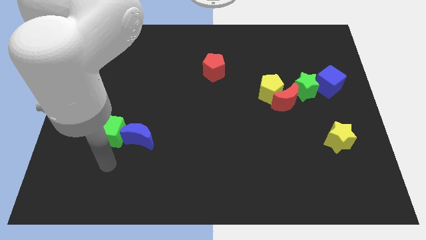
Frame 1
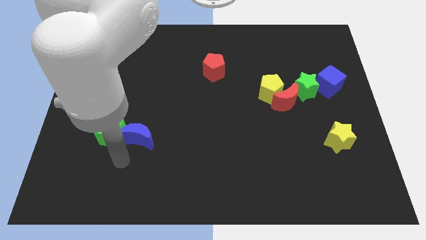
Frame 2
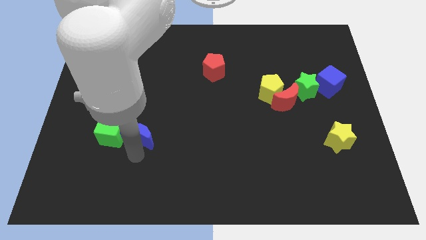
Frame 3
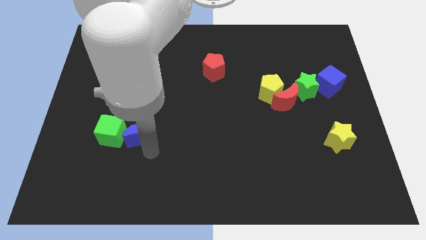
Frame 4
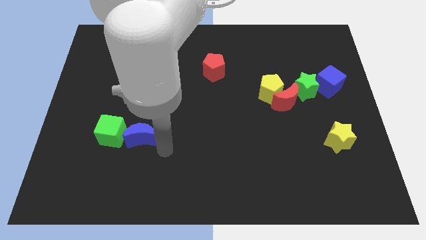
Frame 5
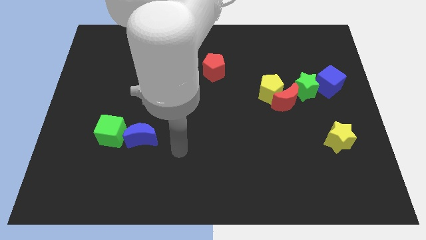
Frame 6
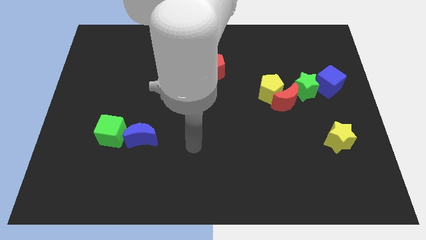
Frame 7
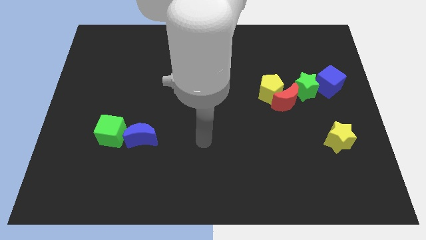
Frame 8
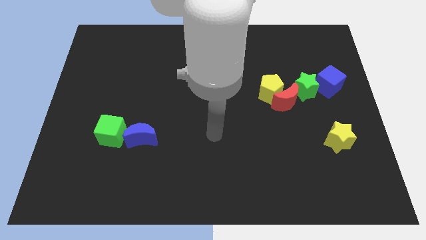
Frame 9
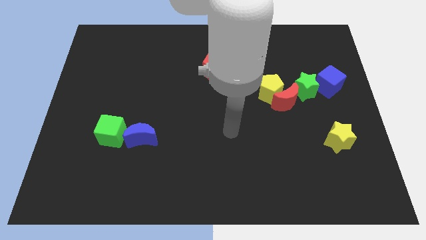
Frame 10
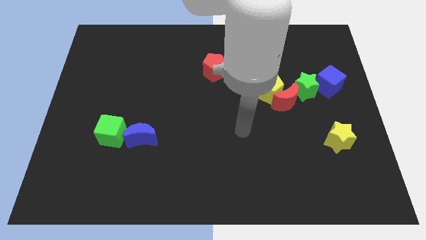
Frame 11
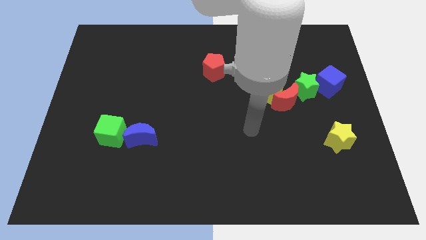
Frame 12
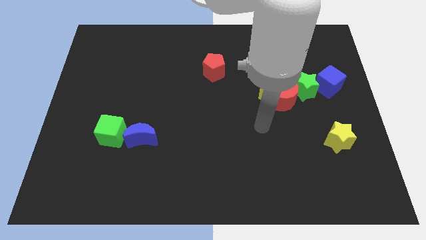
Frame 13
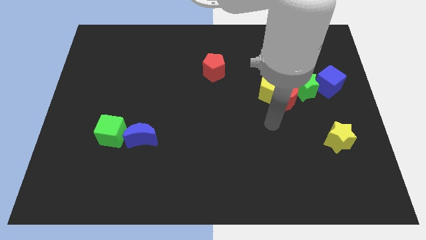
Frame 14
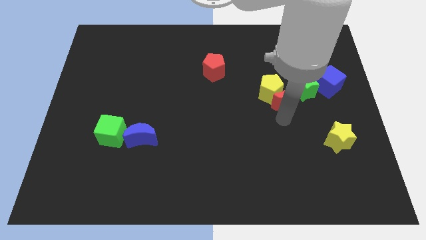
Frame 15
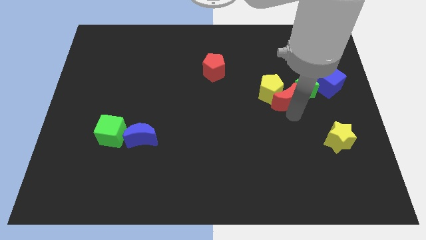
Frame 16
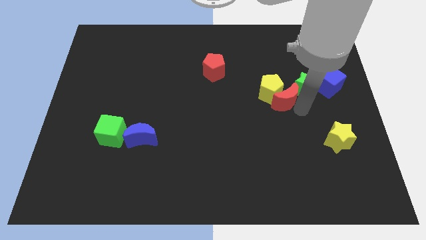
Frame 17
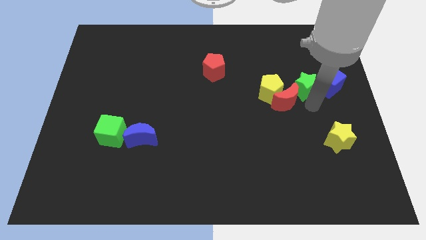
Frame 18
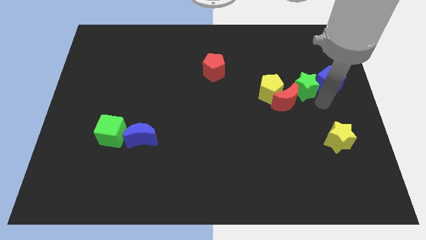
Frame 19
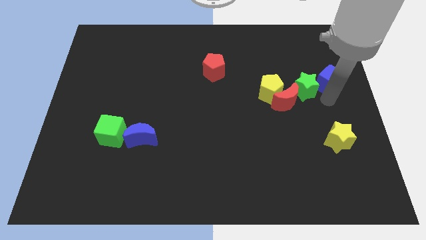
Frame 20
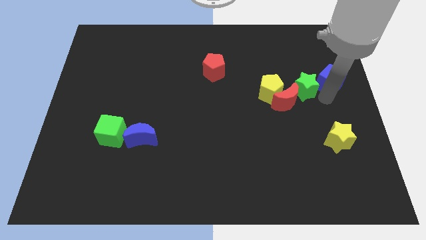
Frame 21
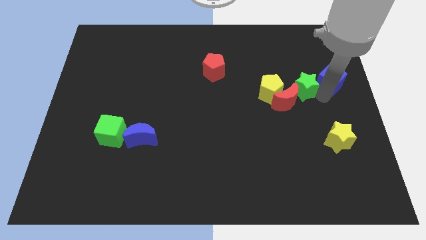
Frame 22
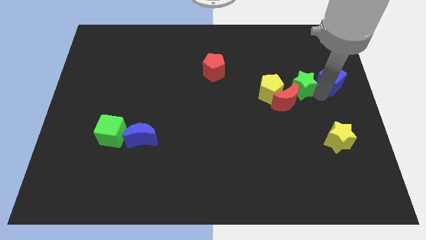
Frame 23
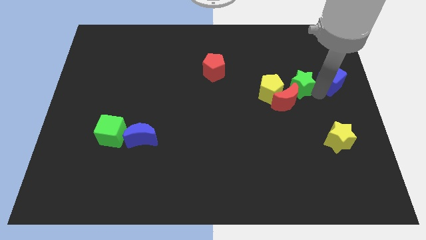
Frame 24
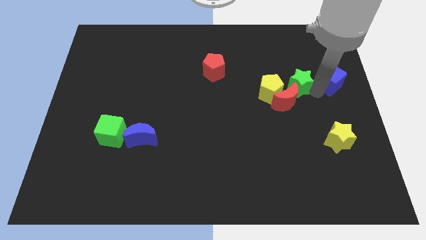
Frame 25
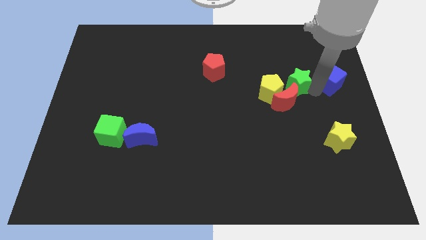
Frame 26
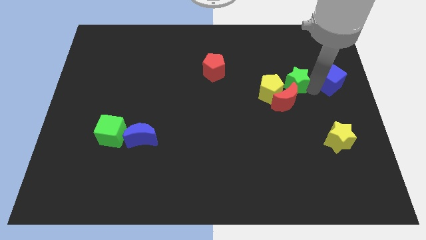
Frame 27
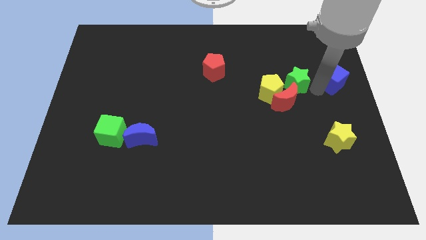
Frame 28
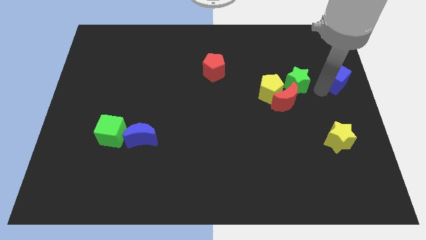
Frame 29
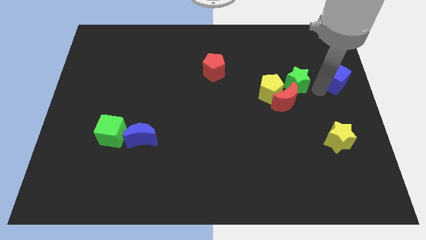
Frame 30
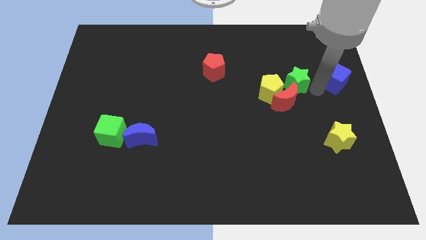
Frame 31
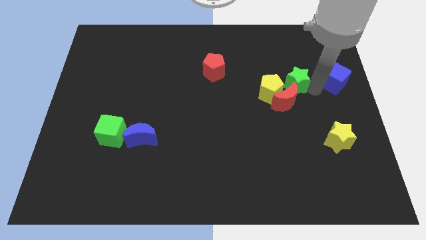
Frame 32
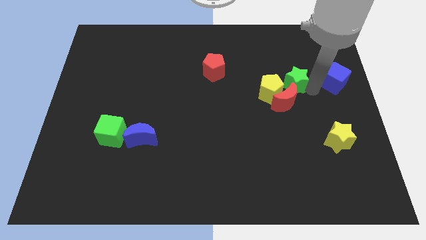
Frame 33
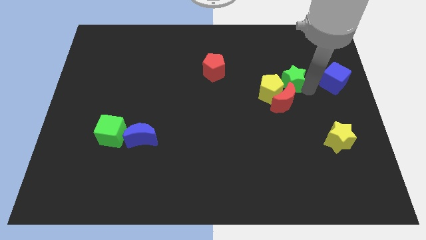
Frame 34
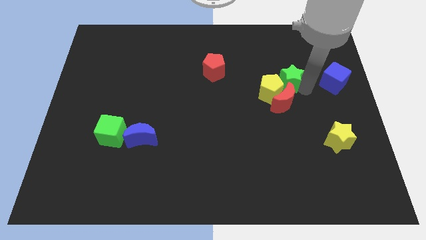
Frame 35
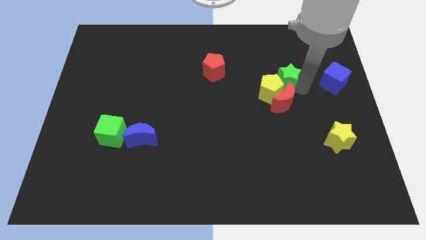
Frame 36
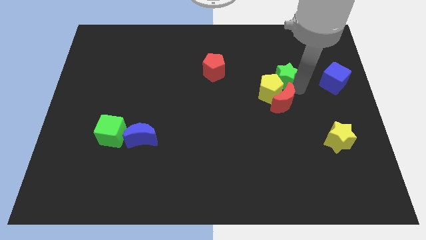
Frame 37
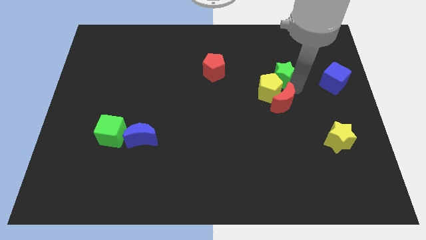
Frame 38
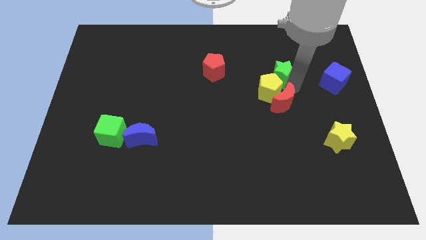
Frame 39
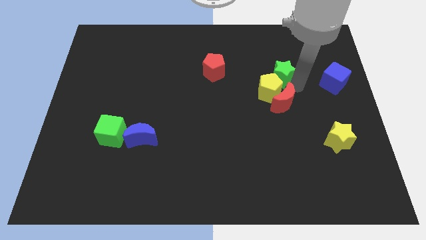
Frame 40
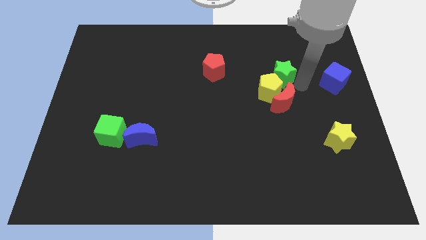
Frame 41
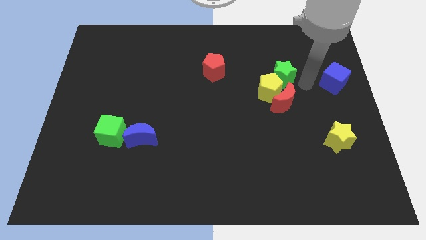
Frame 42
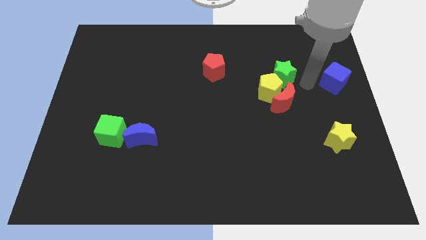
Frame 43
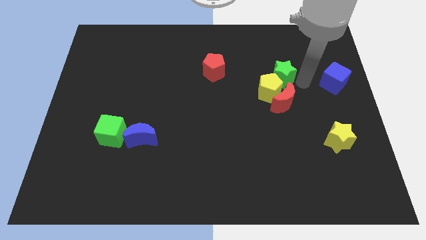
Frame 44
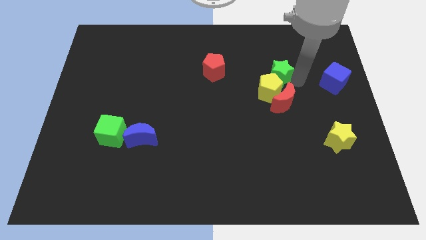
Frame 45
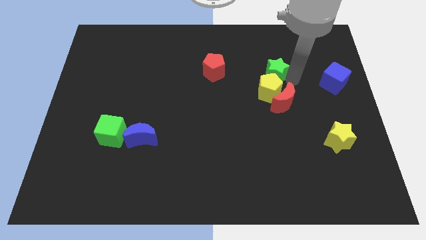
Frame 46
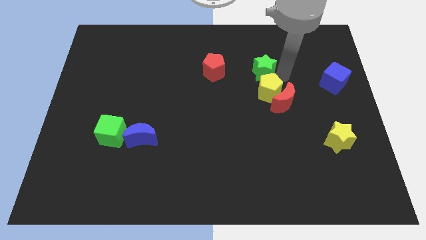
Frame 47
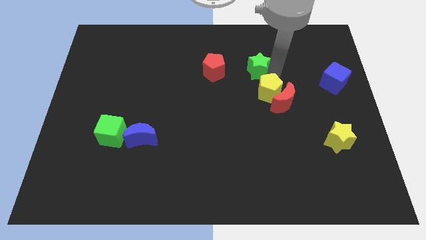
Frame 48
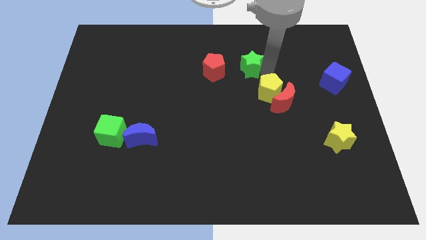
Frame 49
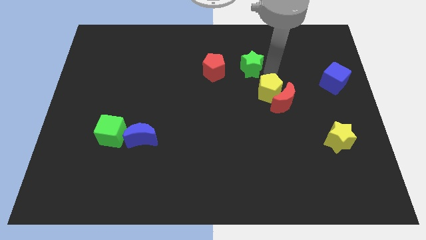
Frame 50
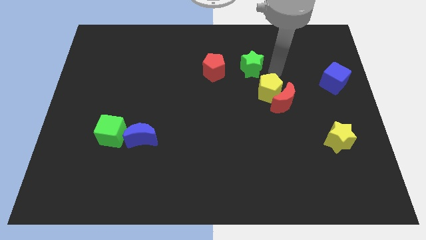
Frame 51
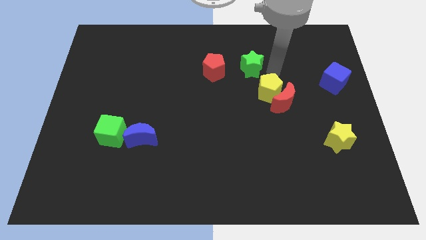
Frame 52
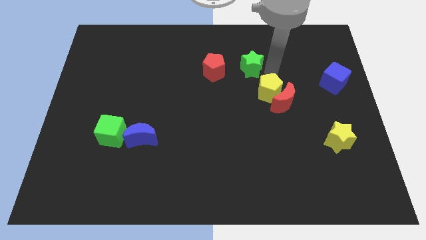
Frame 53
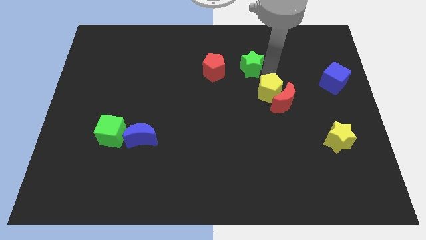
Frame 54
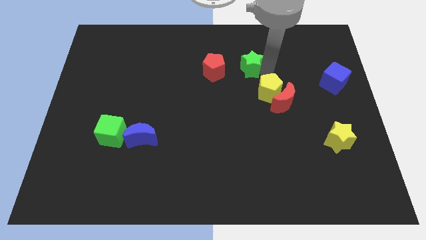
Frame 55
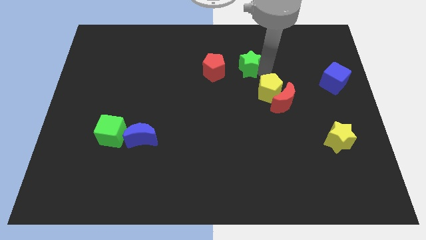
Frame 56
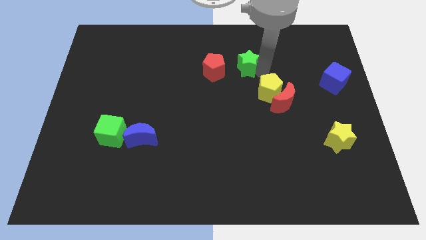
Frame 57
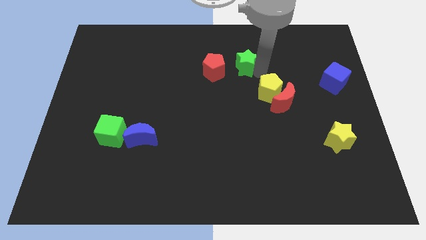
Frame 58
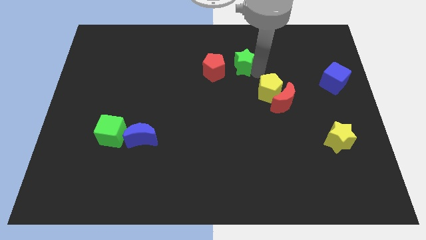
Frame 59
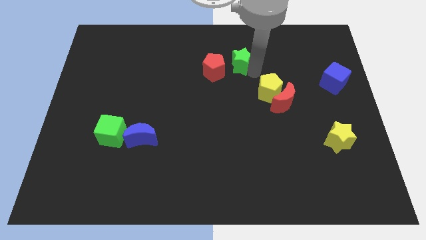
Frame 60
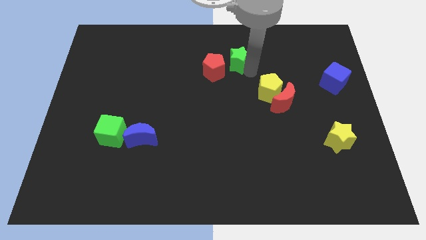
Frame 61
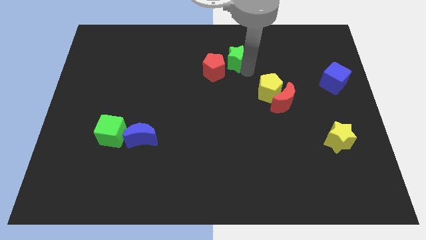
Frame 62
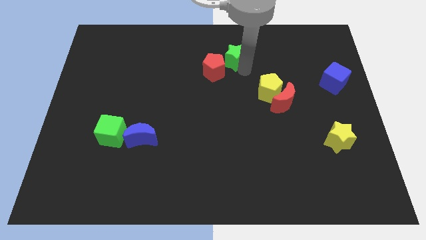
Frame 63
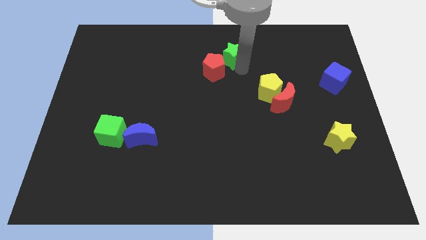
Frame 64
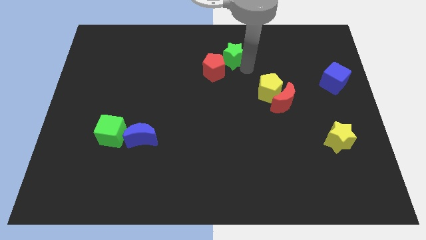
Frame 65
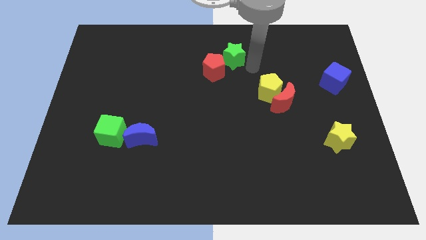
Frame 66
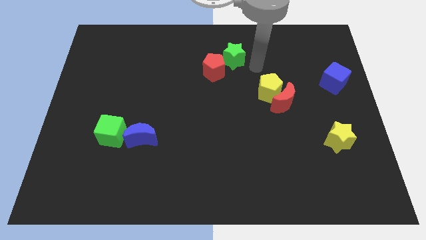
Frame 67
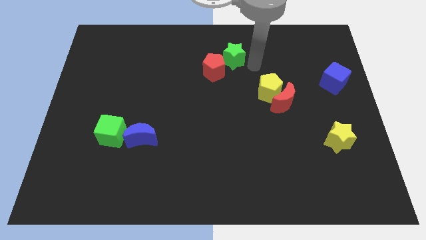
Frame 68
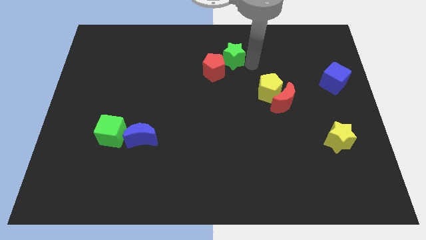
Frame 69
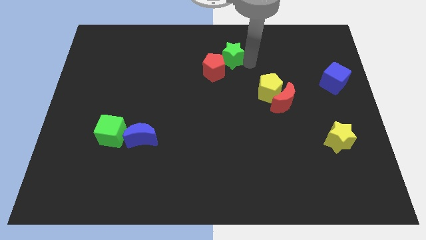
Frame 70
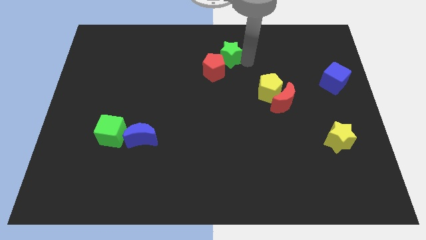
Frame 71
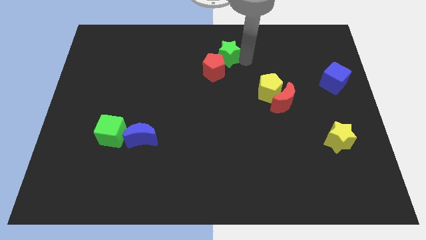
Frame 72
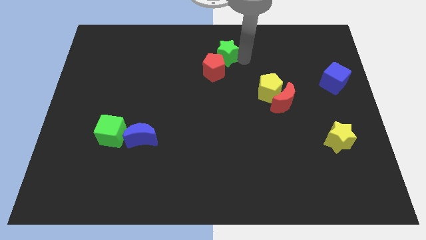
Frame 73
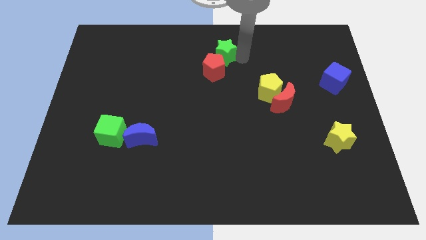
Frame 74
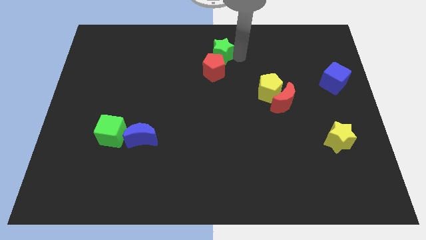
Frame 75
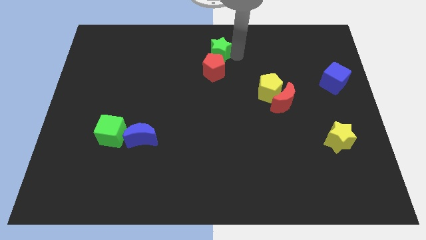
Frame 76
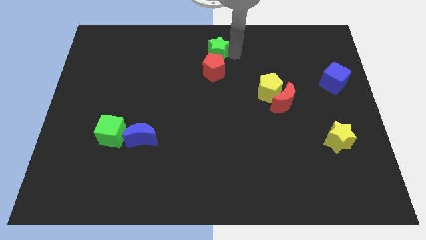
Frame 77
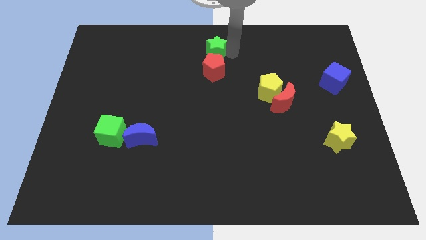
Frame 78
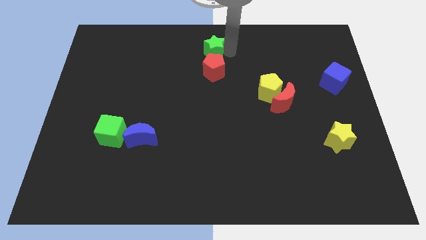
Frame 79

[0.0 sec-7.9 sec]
slide the green star to the top left side of the red pentagon

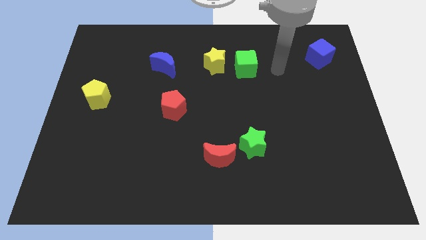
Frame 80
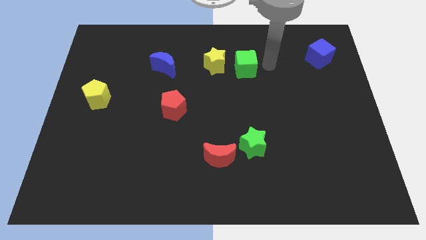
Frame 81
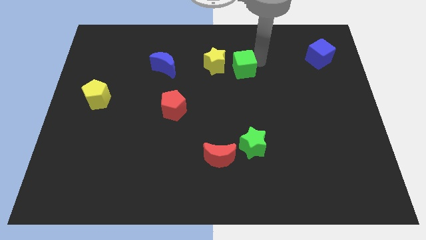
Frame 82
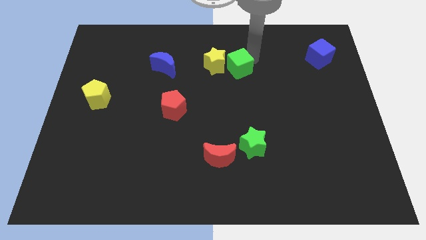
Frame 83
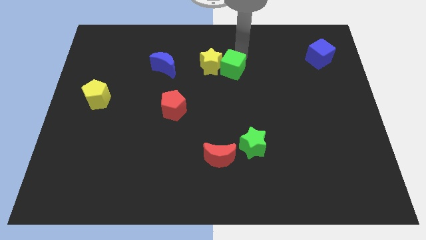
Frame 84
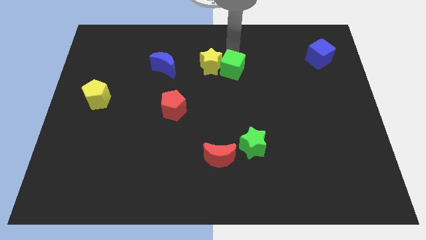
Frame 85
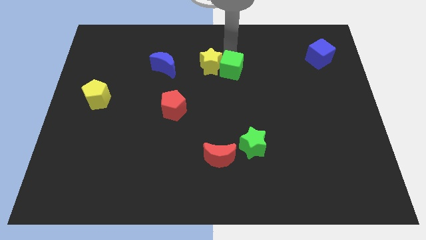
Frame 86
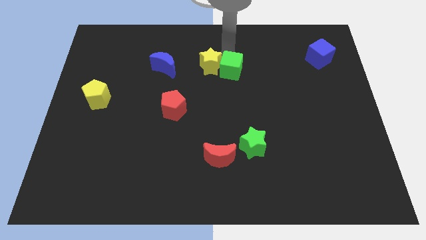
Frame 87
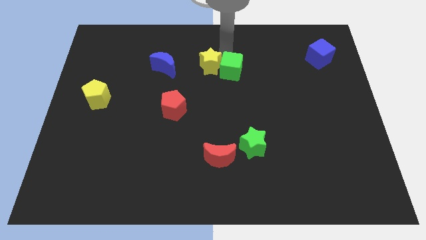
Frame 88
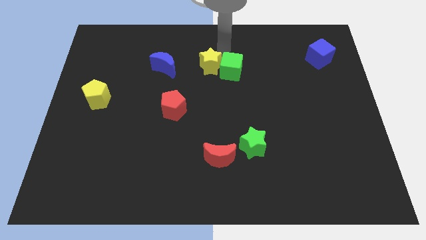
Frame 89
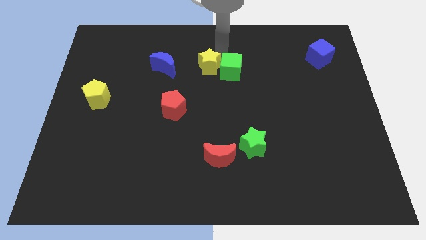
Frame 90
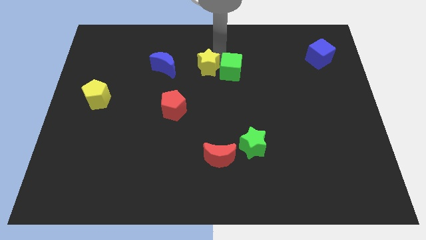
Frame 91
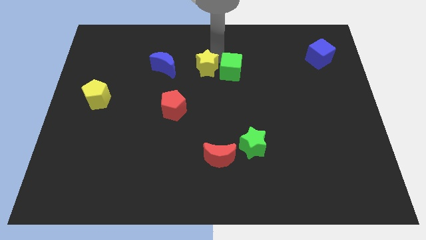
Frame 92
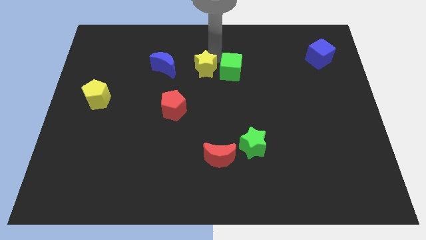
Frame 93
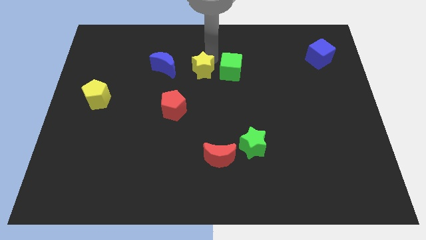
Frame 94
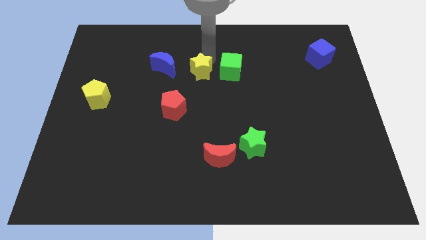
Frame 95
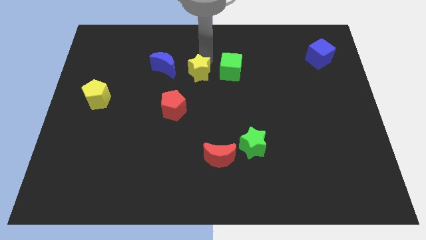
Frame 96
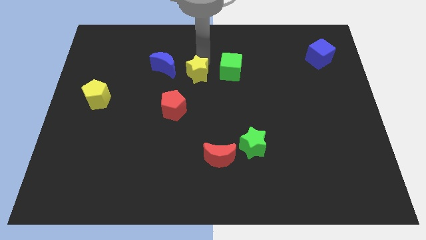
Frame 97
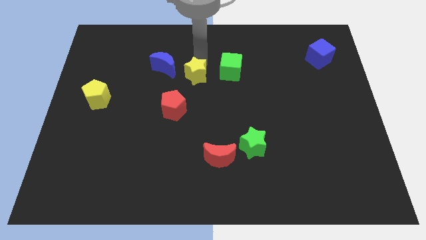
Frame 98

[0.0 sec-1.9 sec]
put the yellow star above the red pentagon
